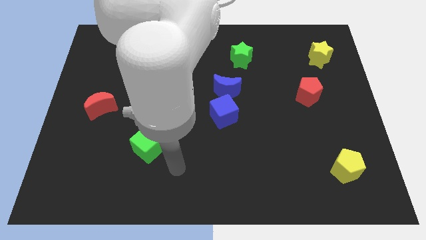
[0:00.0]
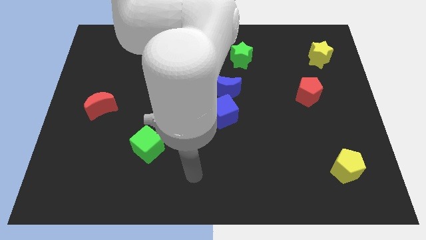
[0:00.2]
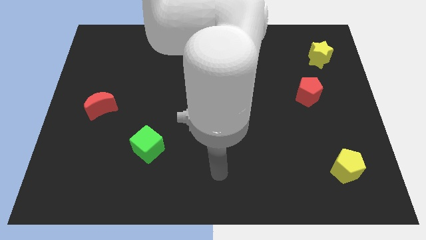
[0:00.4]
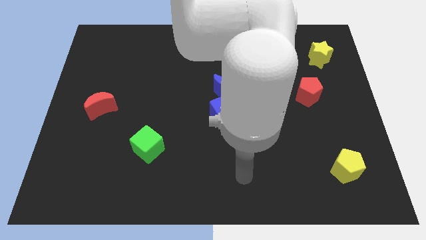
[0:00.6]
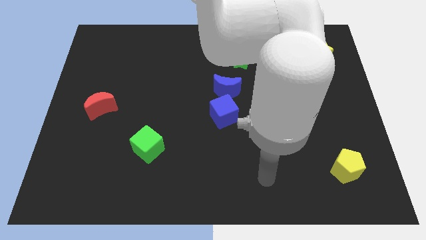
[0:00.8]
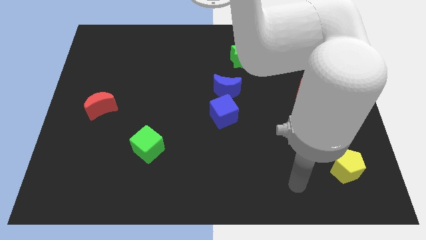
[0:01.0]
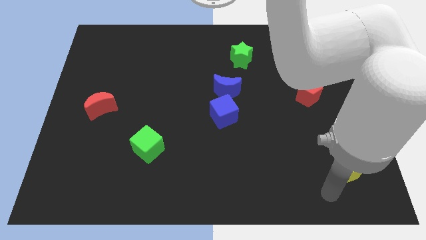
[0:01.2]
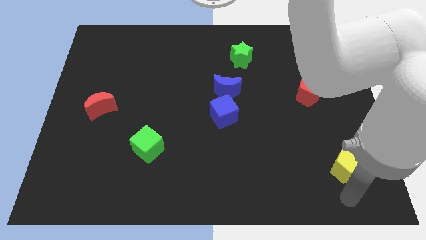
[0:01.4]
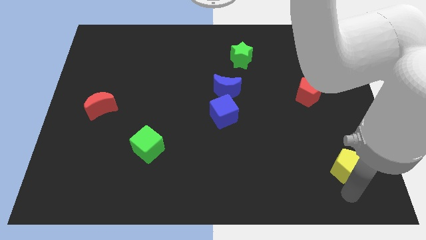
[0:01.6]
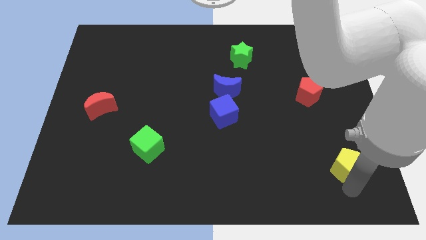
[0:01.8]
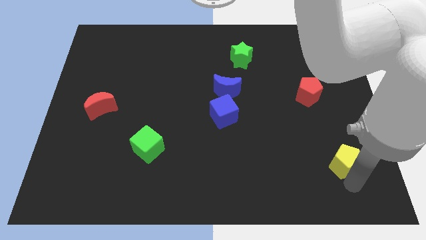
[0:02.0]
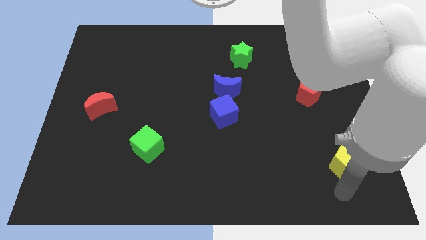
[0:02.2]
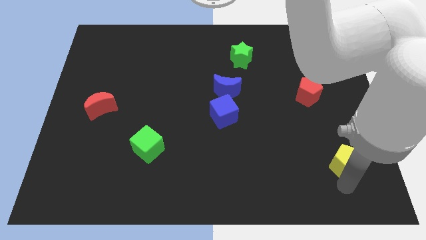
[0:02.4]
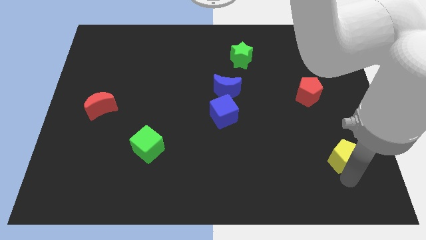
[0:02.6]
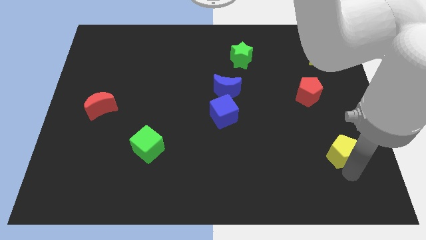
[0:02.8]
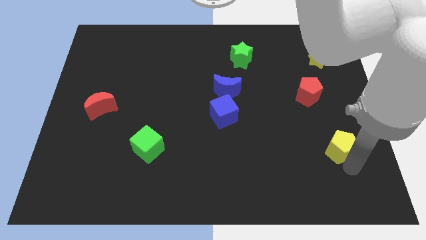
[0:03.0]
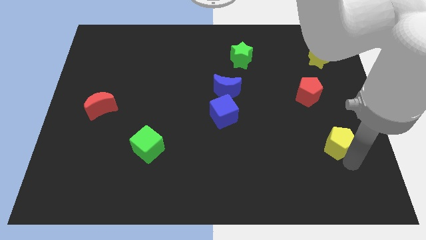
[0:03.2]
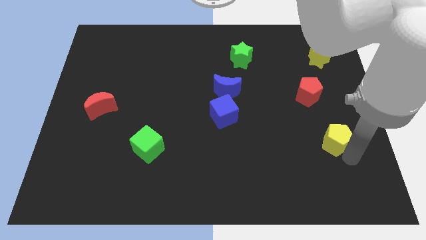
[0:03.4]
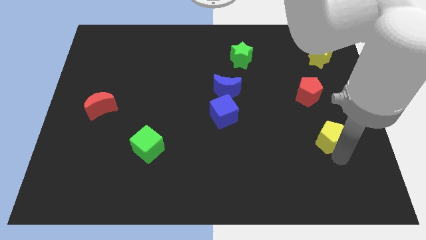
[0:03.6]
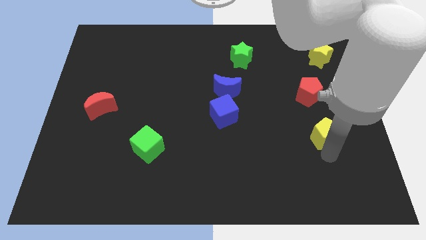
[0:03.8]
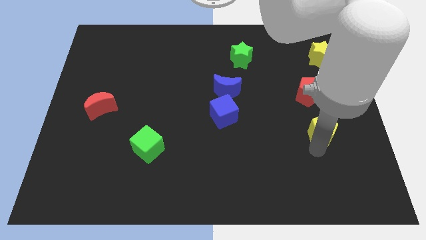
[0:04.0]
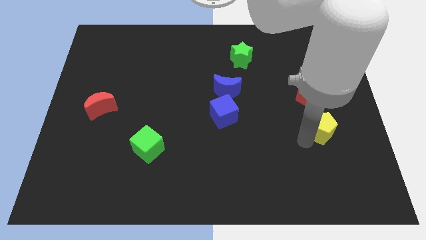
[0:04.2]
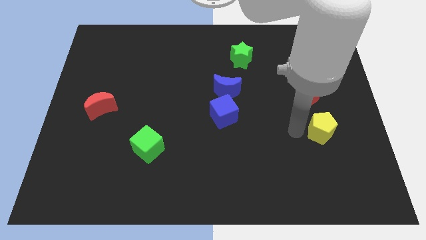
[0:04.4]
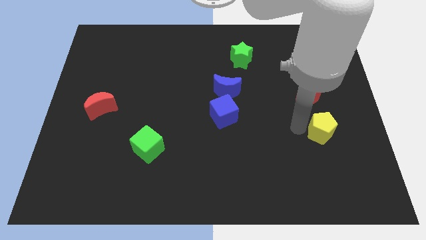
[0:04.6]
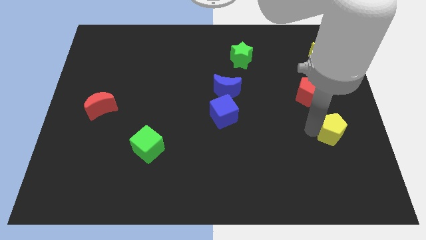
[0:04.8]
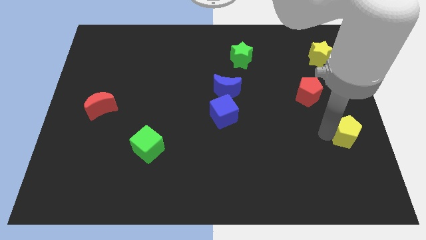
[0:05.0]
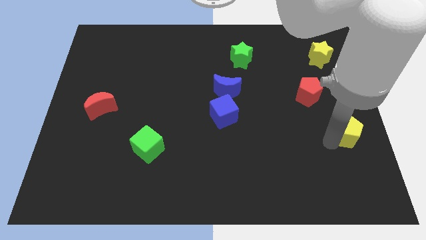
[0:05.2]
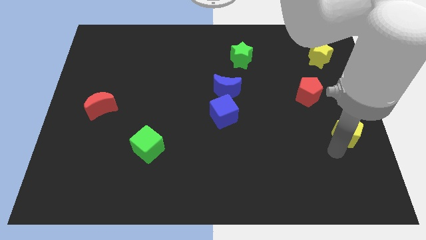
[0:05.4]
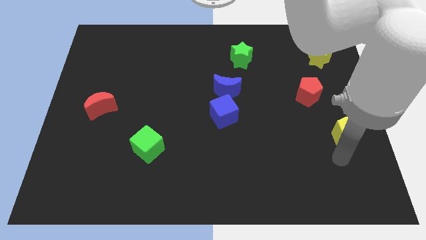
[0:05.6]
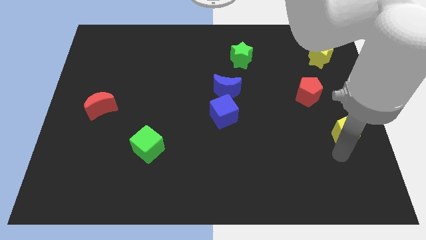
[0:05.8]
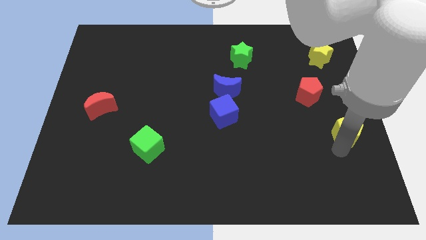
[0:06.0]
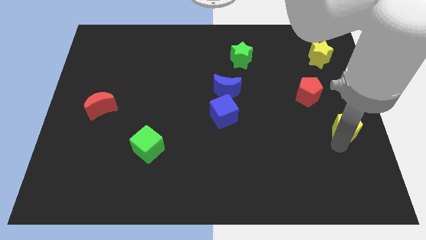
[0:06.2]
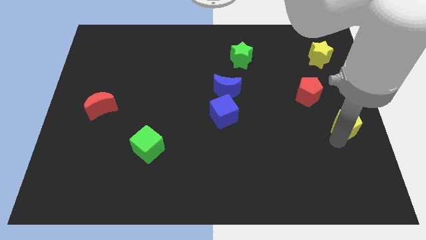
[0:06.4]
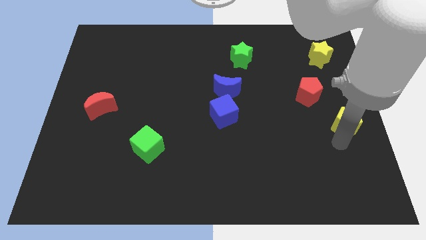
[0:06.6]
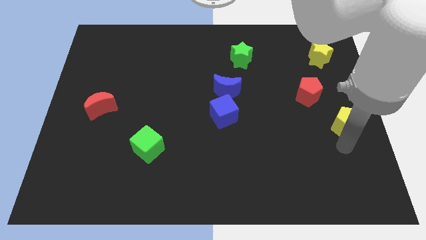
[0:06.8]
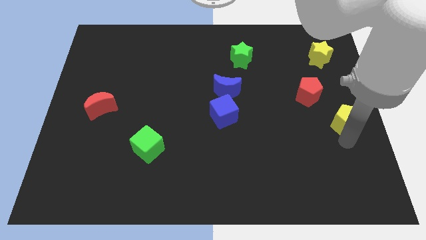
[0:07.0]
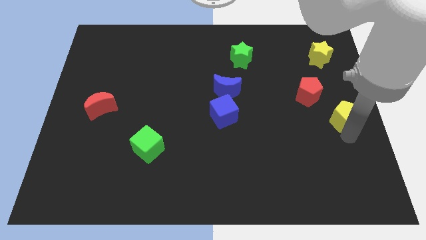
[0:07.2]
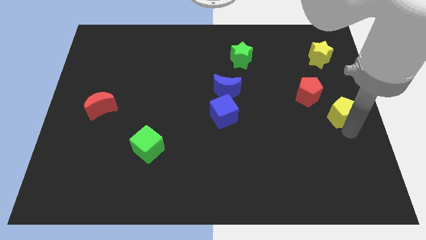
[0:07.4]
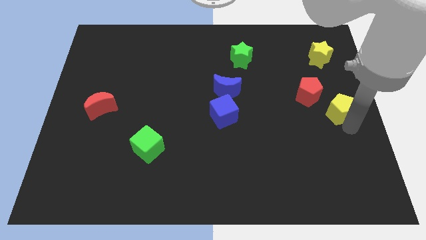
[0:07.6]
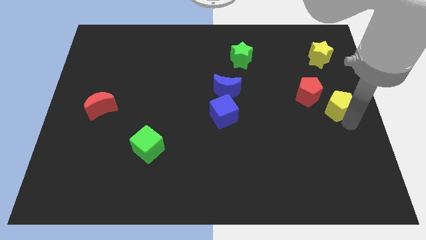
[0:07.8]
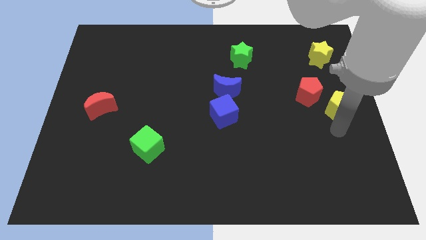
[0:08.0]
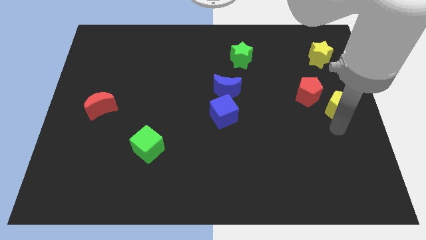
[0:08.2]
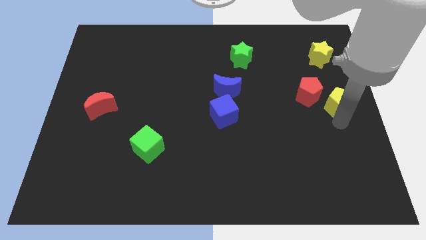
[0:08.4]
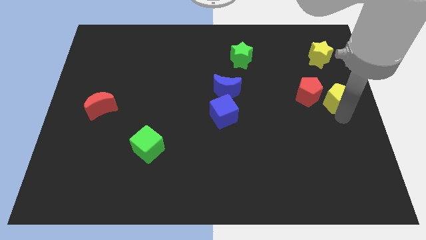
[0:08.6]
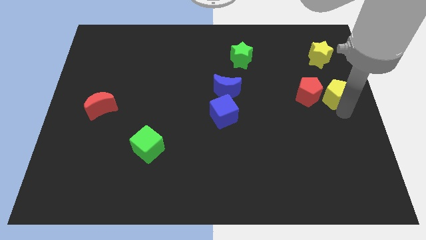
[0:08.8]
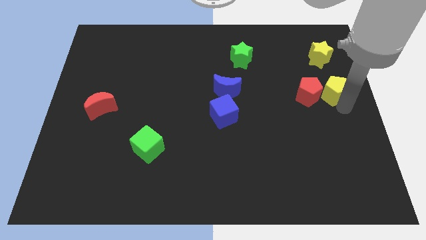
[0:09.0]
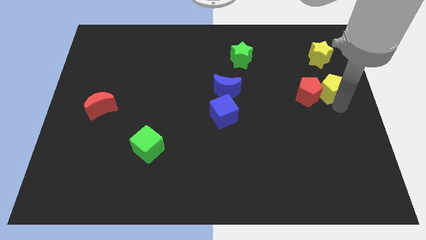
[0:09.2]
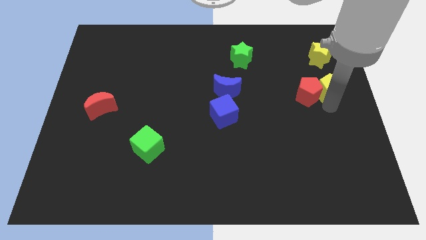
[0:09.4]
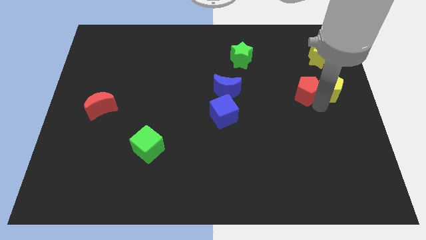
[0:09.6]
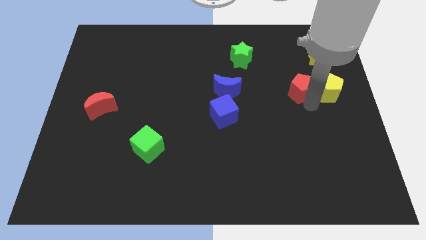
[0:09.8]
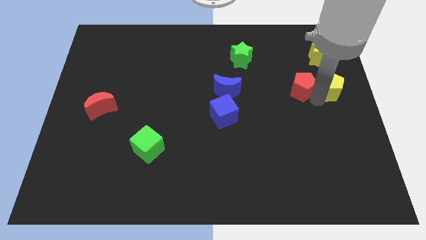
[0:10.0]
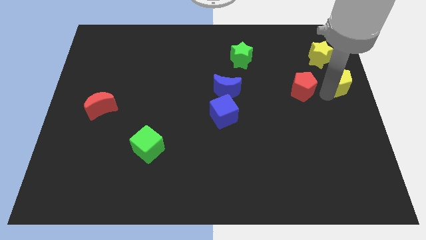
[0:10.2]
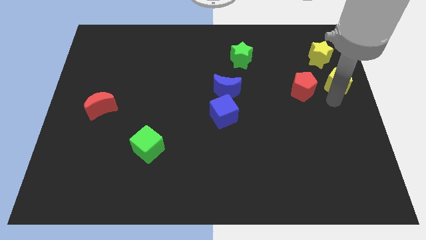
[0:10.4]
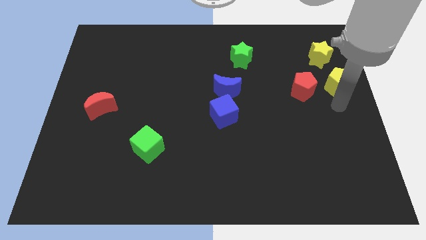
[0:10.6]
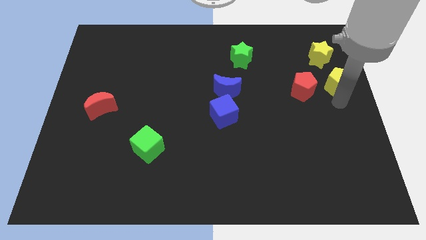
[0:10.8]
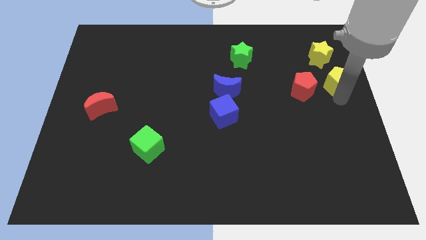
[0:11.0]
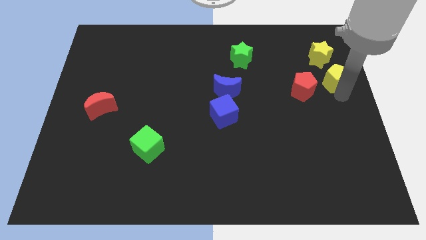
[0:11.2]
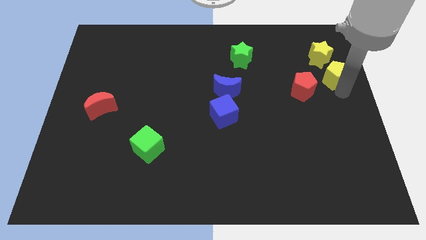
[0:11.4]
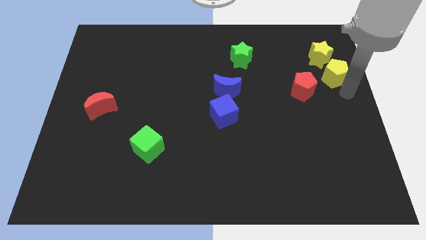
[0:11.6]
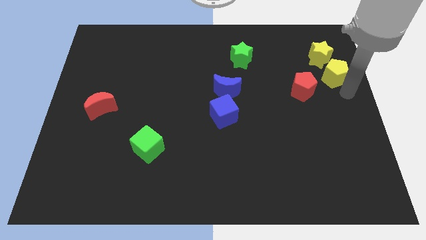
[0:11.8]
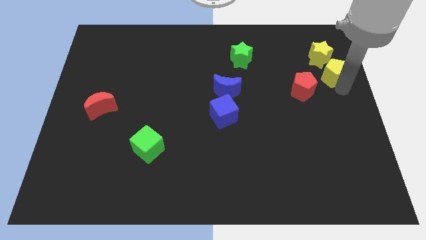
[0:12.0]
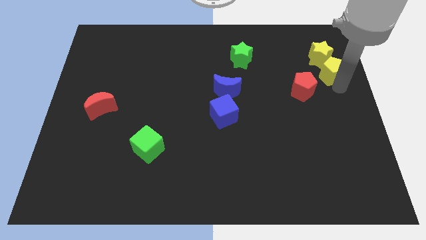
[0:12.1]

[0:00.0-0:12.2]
put the yellow pentagon close to the yellow star
